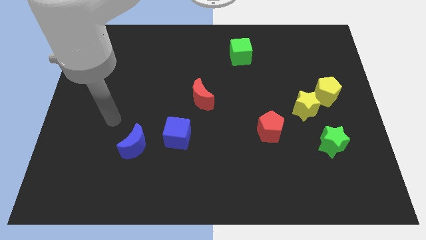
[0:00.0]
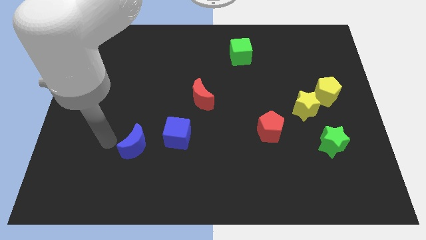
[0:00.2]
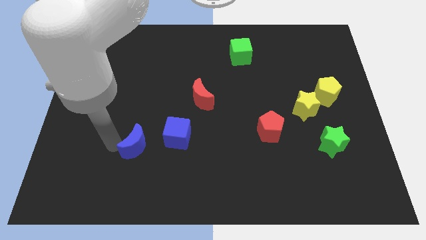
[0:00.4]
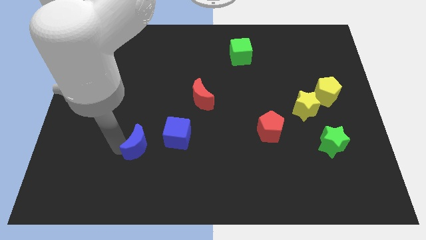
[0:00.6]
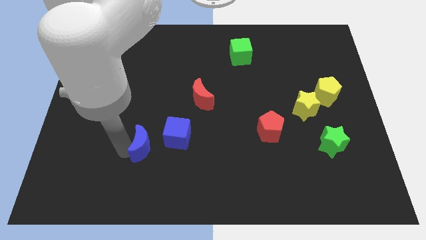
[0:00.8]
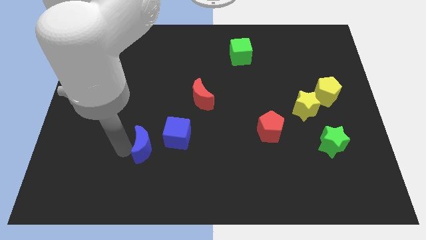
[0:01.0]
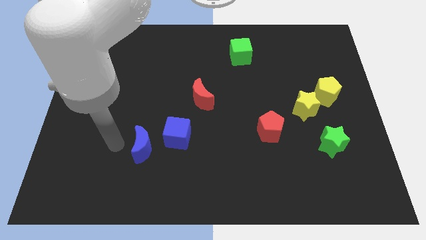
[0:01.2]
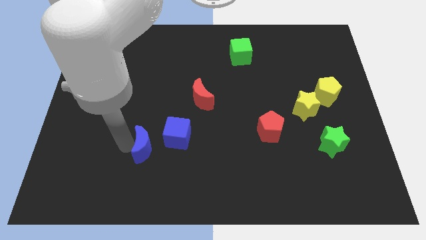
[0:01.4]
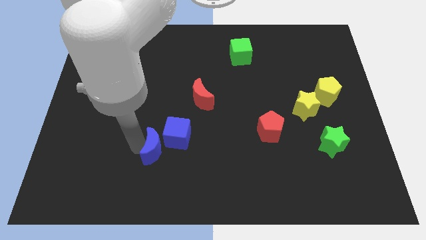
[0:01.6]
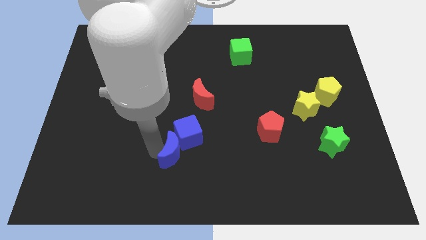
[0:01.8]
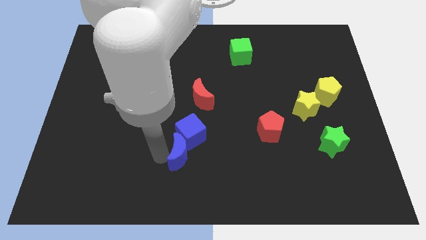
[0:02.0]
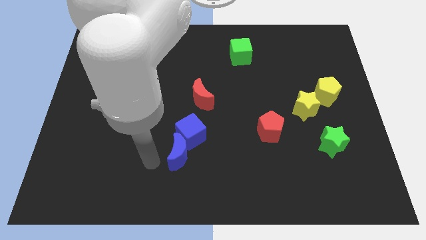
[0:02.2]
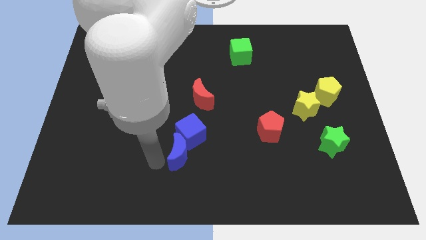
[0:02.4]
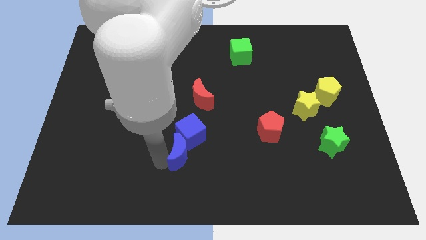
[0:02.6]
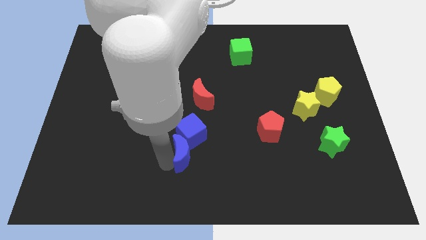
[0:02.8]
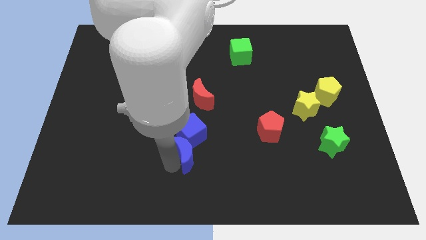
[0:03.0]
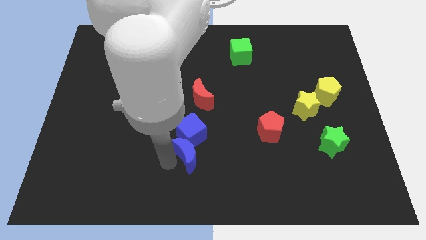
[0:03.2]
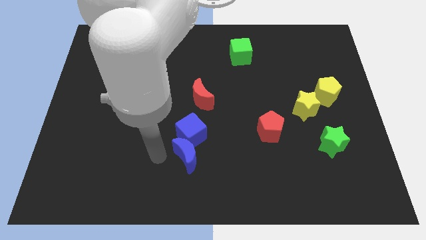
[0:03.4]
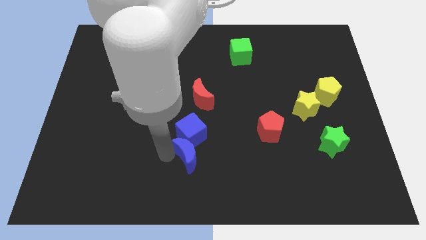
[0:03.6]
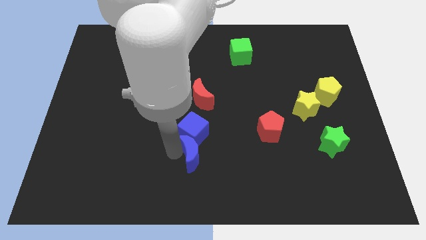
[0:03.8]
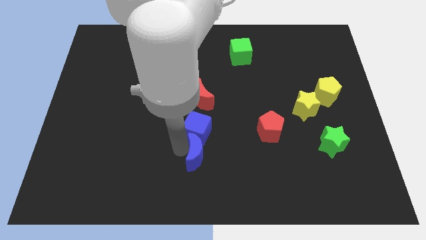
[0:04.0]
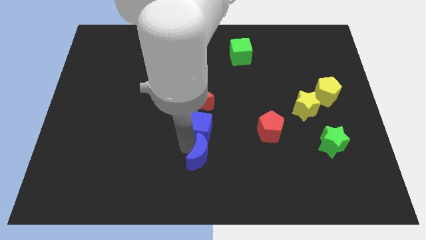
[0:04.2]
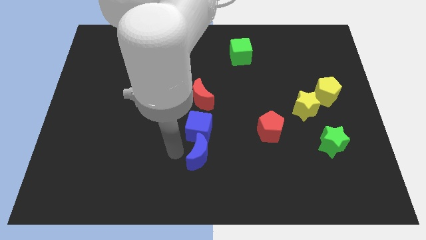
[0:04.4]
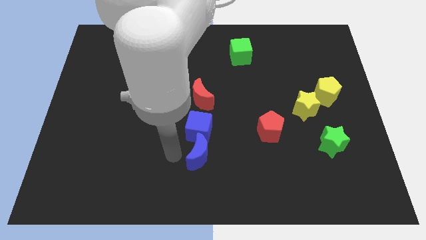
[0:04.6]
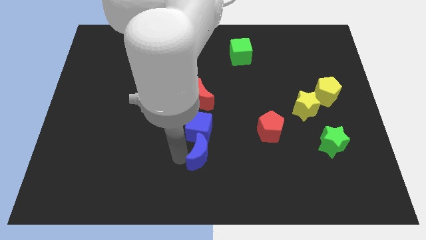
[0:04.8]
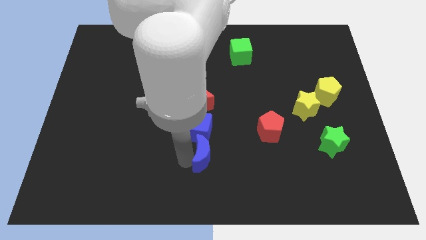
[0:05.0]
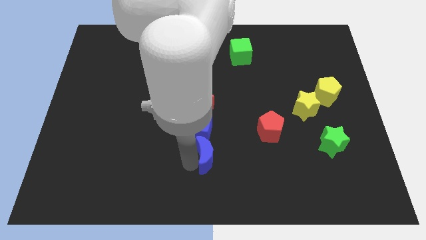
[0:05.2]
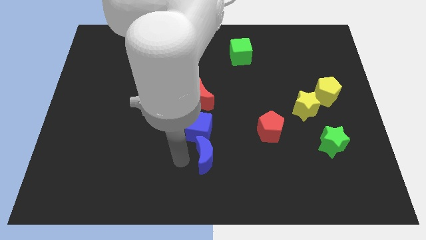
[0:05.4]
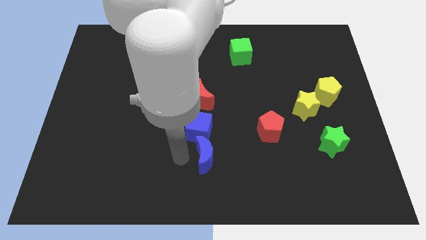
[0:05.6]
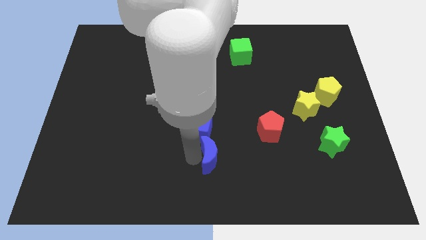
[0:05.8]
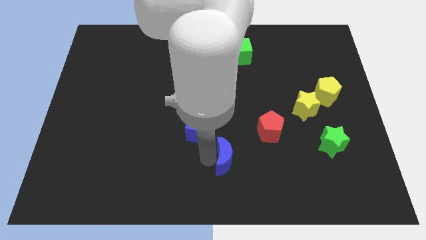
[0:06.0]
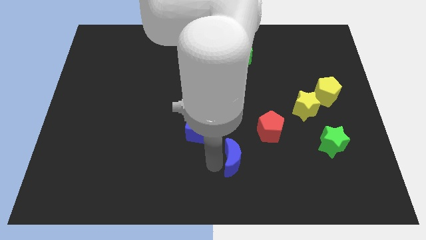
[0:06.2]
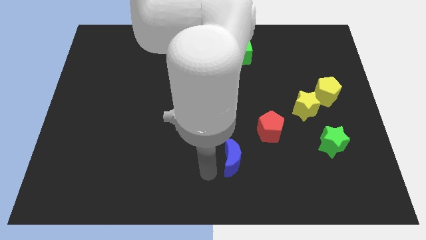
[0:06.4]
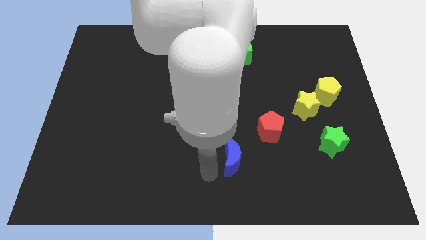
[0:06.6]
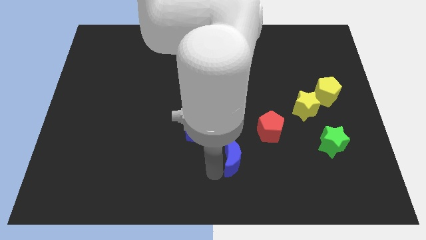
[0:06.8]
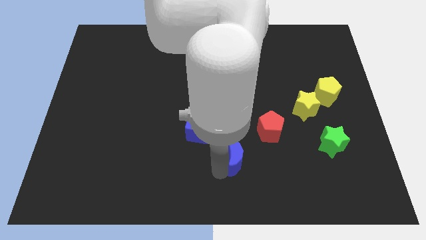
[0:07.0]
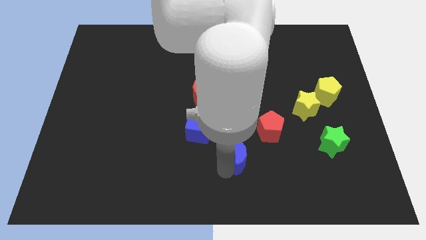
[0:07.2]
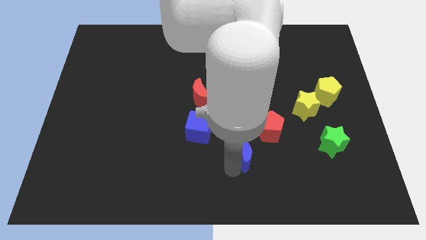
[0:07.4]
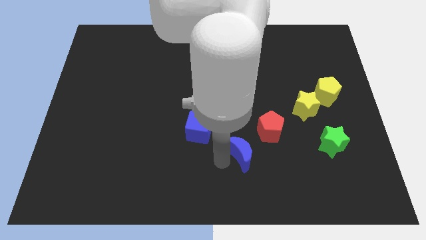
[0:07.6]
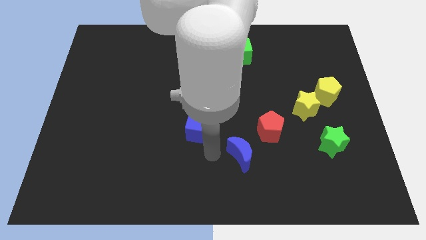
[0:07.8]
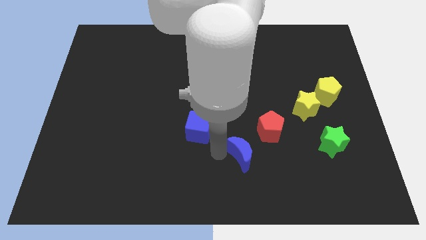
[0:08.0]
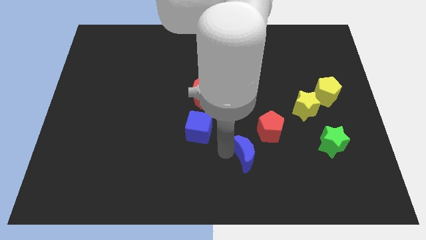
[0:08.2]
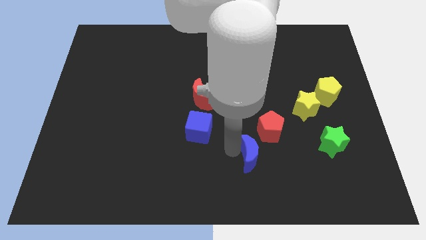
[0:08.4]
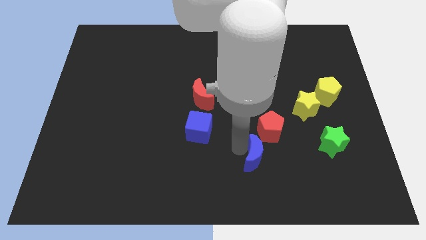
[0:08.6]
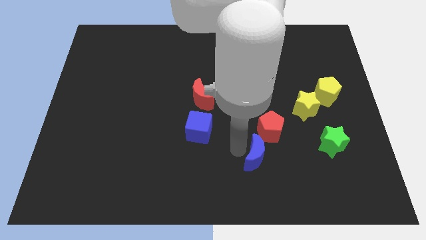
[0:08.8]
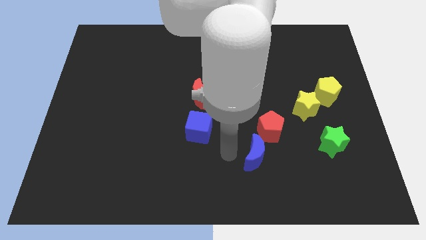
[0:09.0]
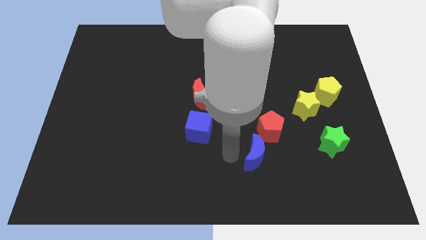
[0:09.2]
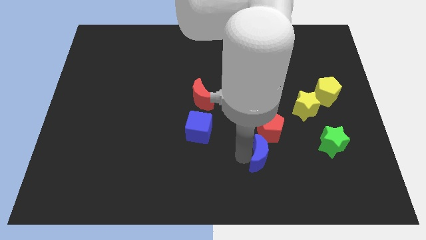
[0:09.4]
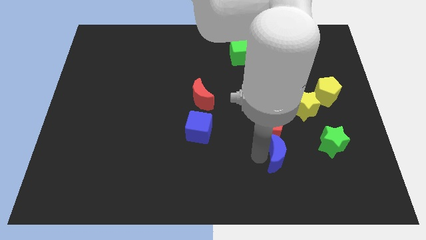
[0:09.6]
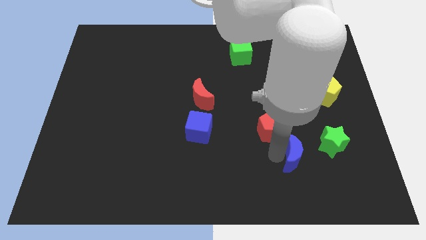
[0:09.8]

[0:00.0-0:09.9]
slide the blue moon to the bottom left side of the green star

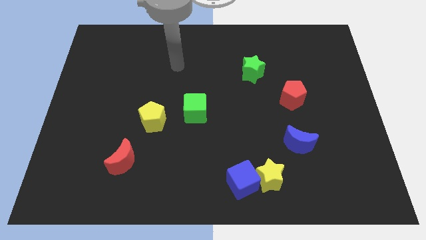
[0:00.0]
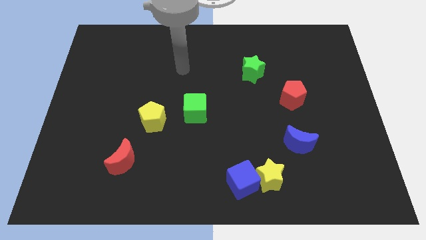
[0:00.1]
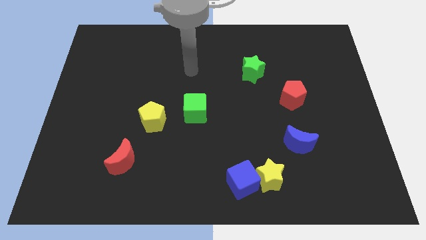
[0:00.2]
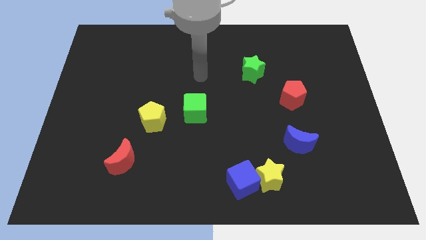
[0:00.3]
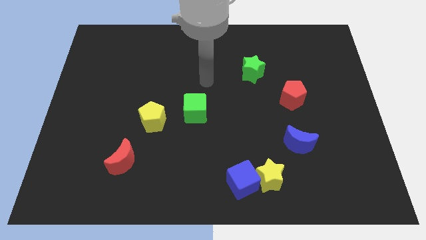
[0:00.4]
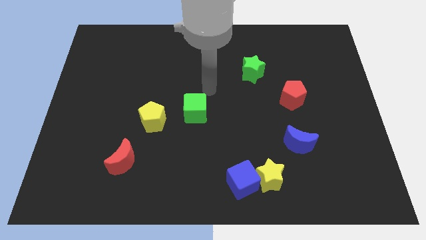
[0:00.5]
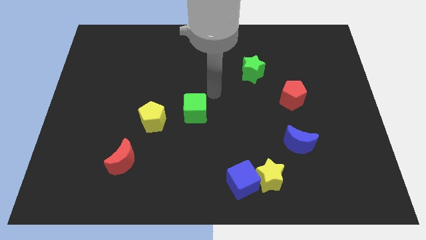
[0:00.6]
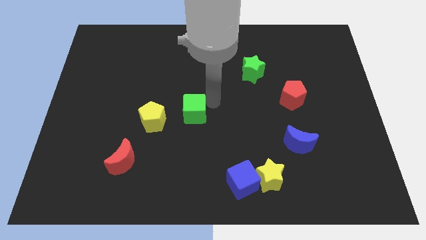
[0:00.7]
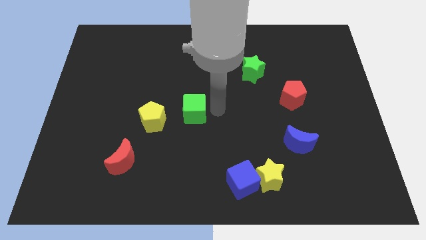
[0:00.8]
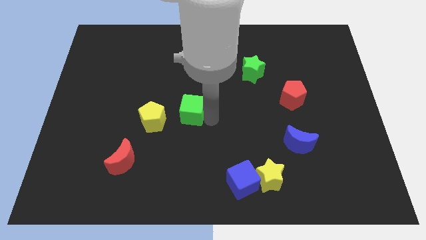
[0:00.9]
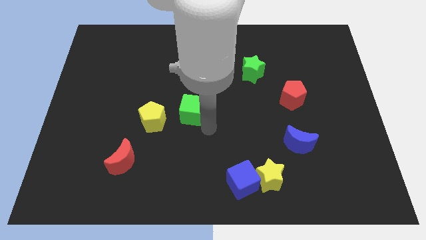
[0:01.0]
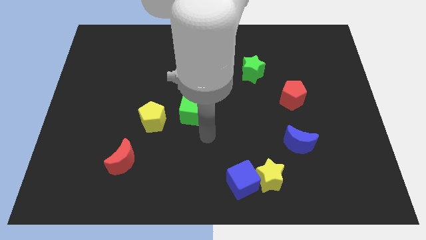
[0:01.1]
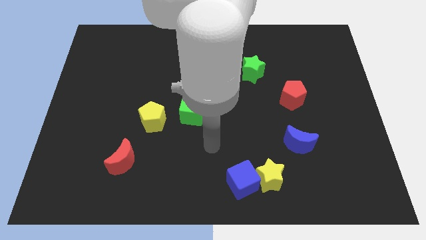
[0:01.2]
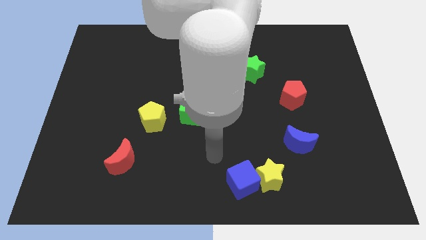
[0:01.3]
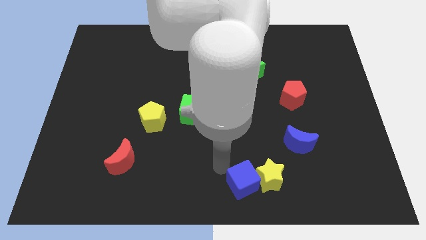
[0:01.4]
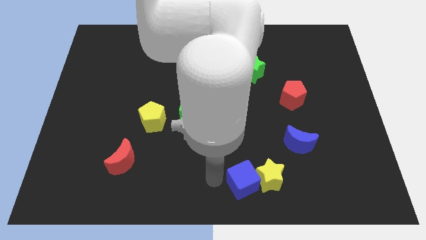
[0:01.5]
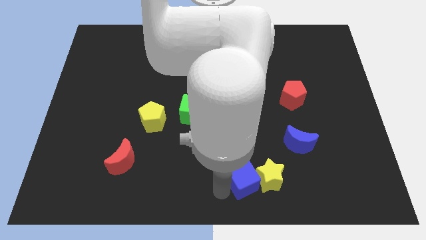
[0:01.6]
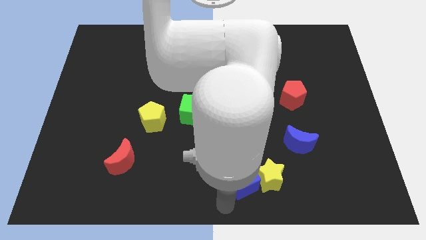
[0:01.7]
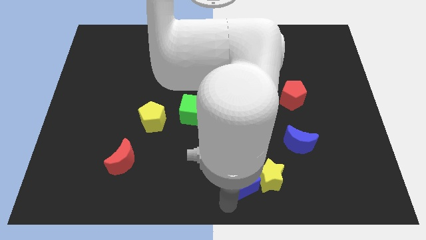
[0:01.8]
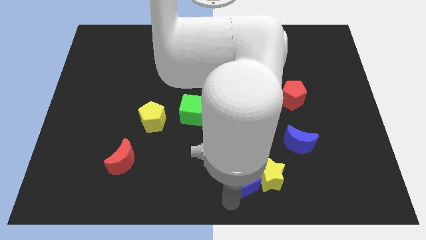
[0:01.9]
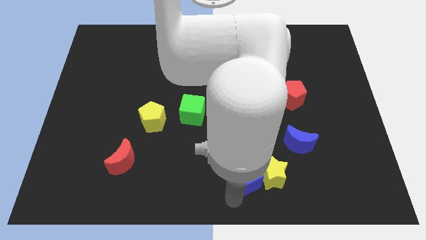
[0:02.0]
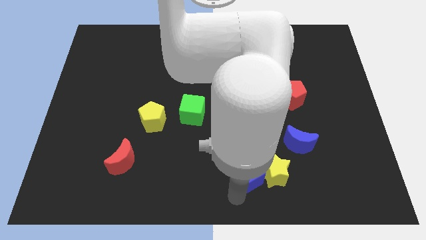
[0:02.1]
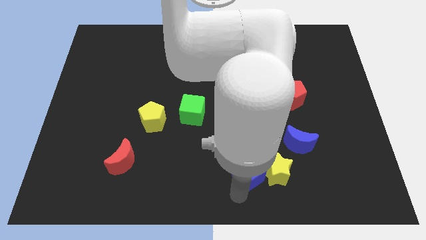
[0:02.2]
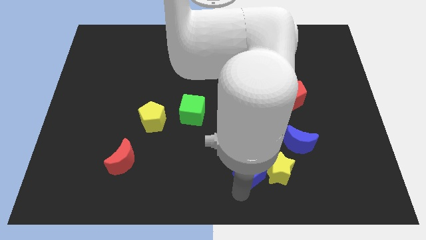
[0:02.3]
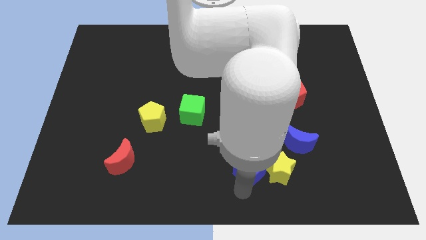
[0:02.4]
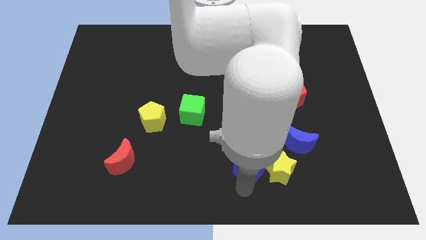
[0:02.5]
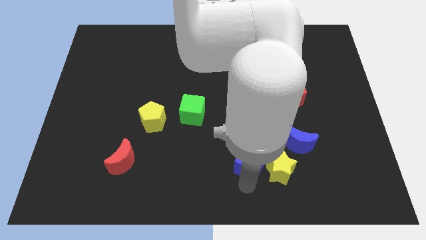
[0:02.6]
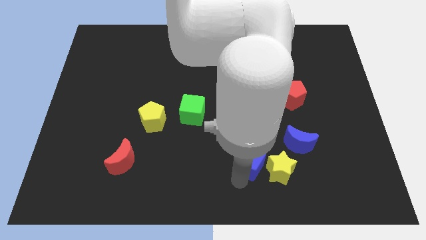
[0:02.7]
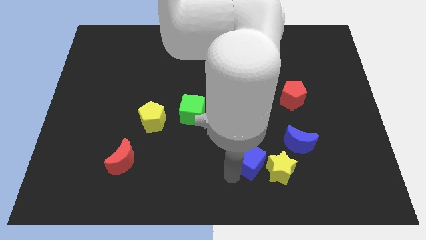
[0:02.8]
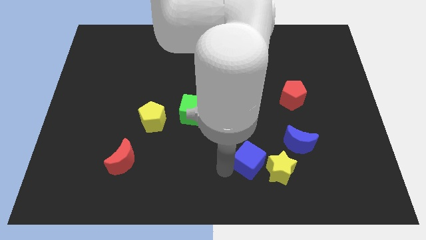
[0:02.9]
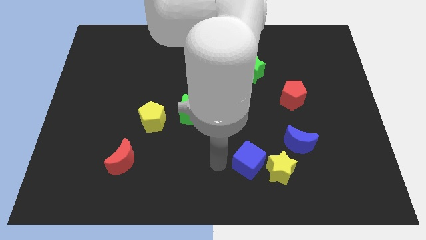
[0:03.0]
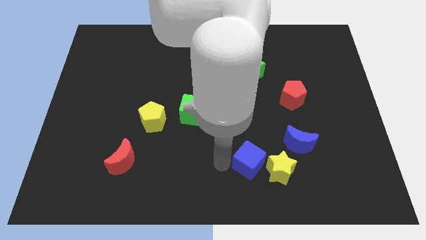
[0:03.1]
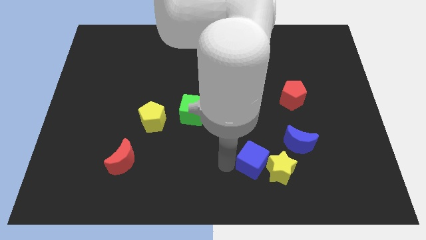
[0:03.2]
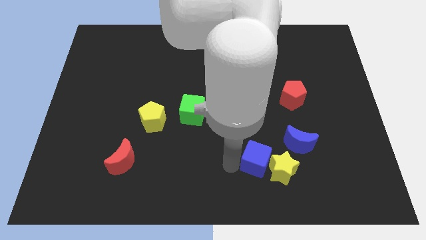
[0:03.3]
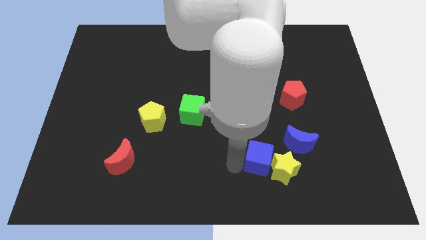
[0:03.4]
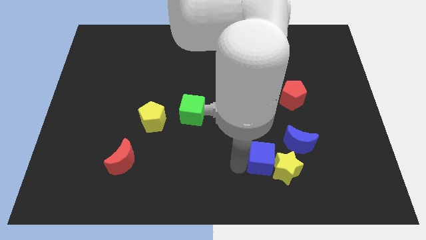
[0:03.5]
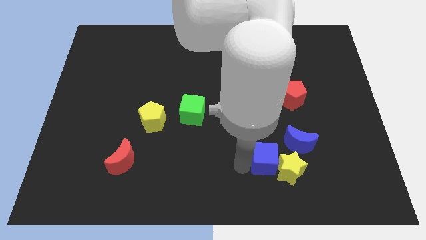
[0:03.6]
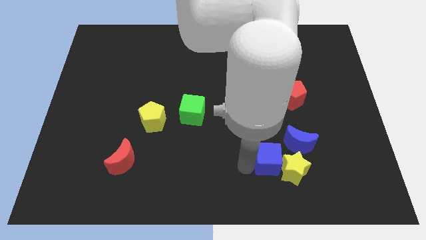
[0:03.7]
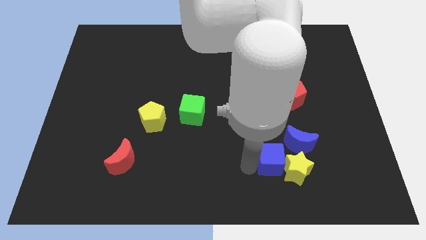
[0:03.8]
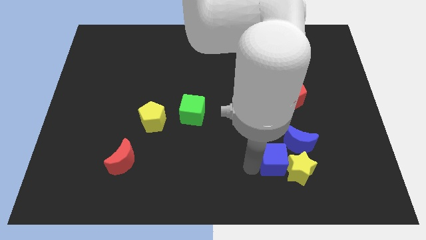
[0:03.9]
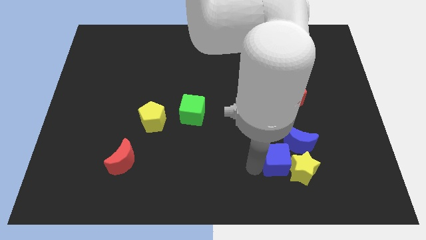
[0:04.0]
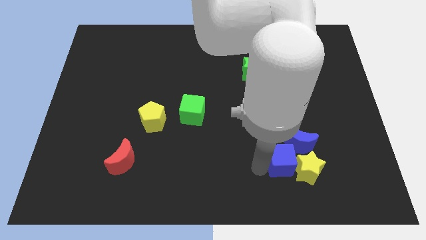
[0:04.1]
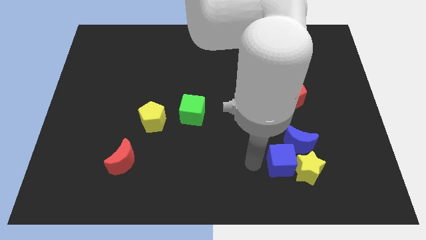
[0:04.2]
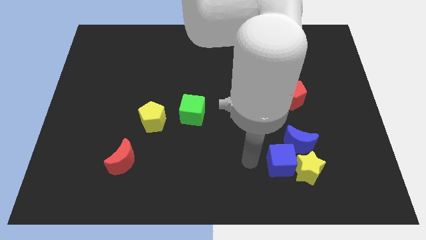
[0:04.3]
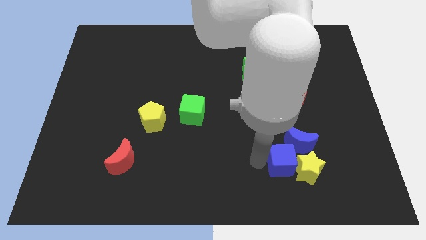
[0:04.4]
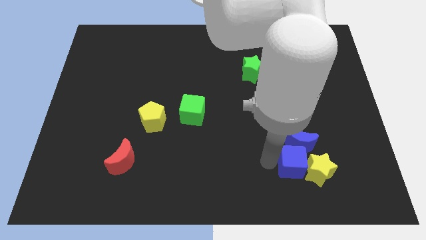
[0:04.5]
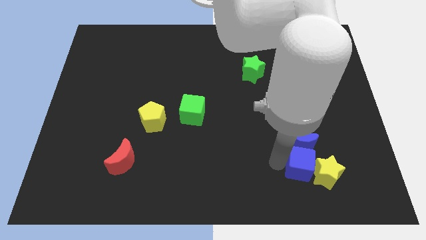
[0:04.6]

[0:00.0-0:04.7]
slide the blue cube to the bottom right side of the blue moon
